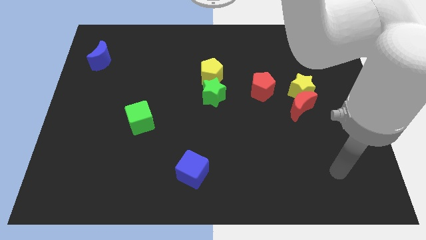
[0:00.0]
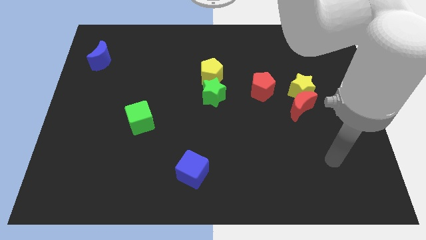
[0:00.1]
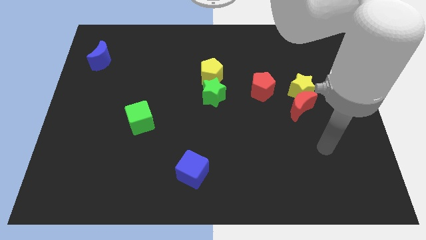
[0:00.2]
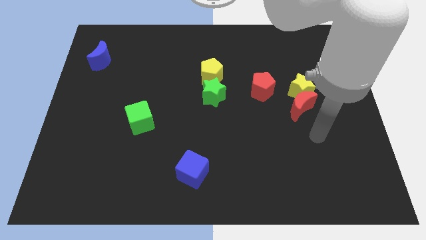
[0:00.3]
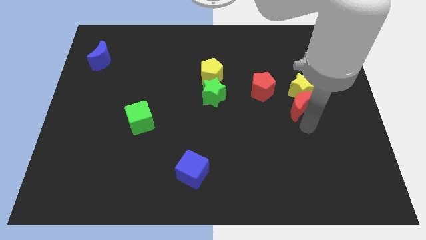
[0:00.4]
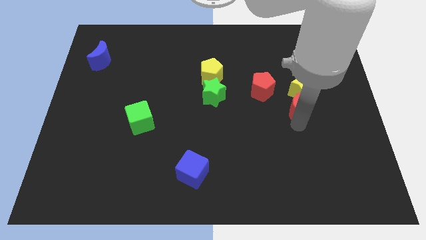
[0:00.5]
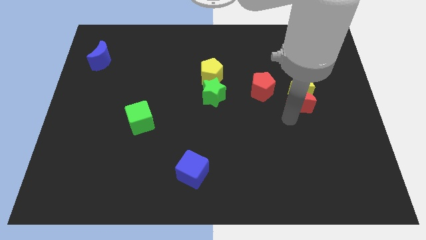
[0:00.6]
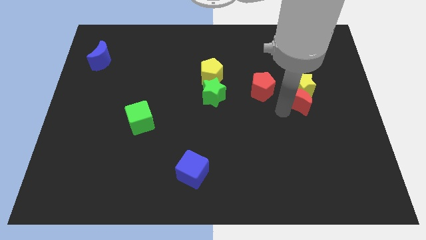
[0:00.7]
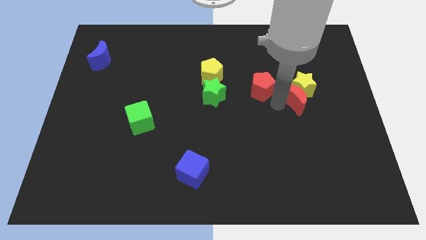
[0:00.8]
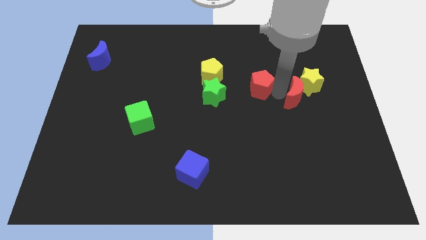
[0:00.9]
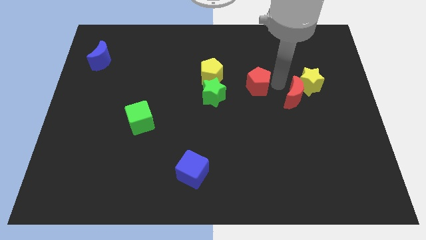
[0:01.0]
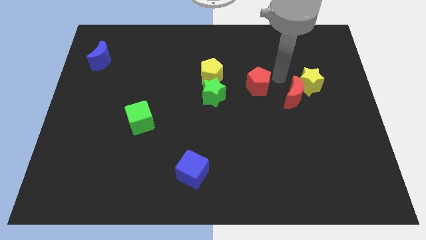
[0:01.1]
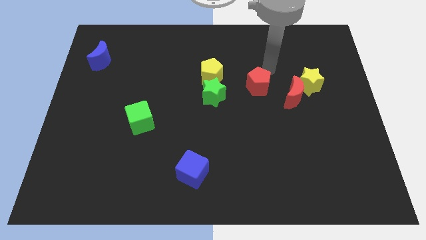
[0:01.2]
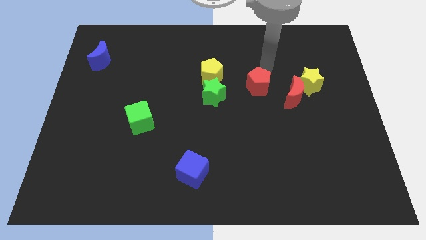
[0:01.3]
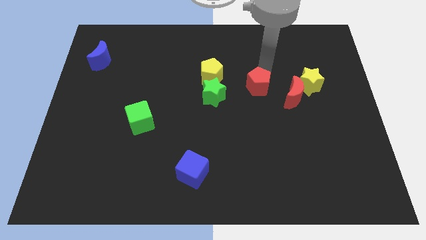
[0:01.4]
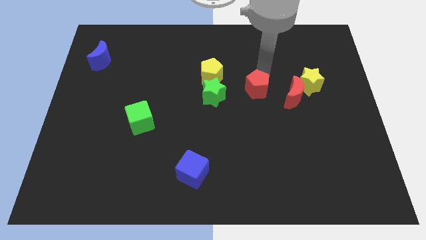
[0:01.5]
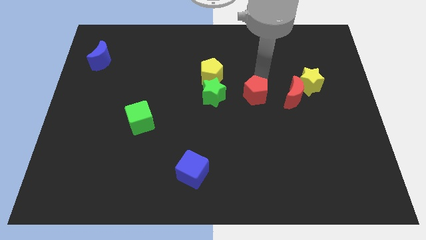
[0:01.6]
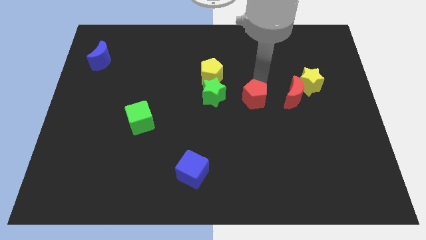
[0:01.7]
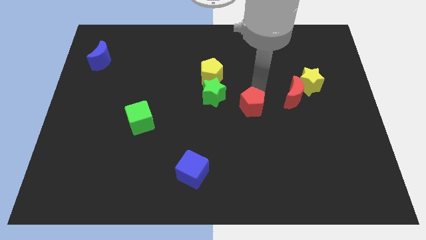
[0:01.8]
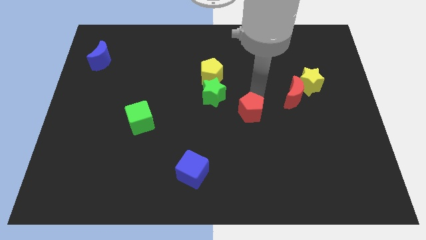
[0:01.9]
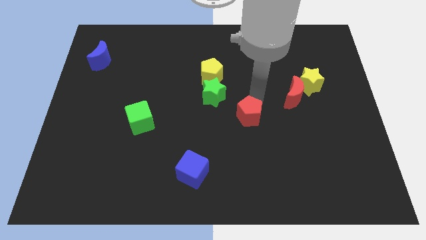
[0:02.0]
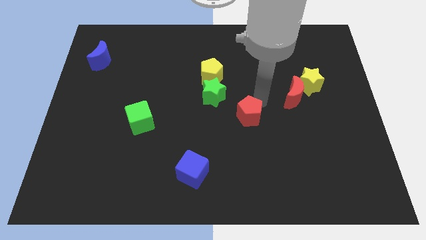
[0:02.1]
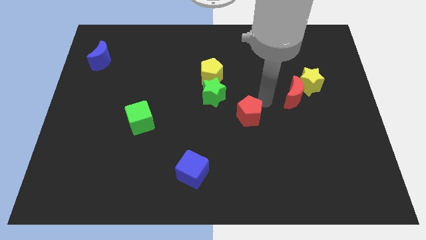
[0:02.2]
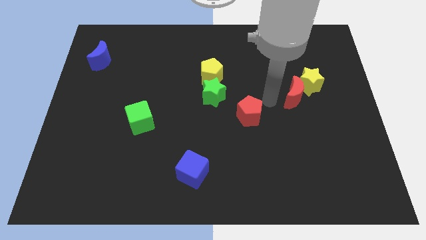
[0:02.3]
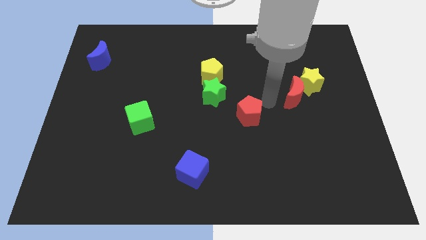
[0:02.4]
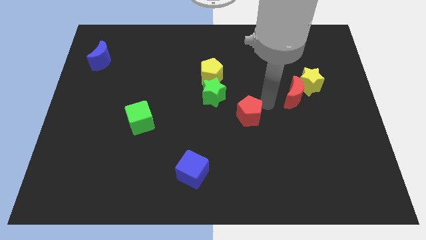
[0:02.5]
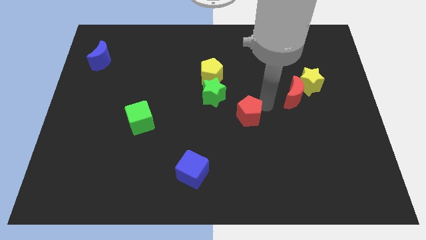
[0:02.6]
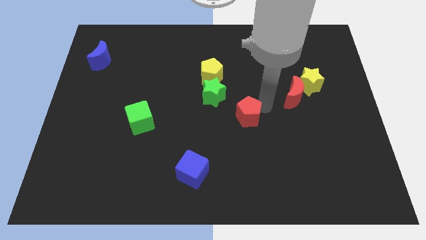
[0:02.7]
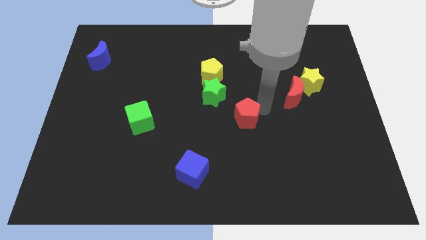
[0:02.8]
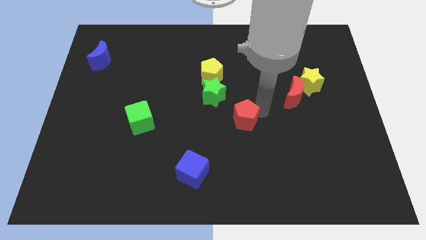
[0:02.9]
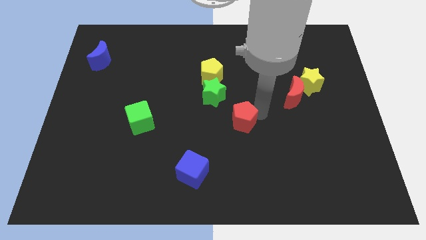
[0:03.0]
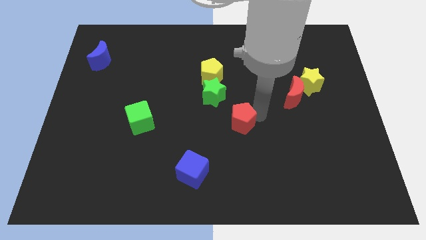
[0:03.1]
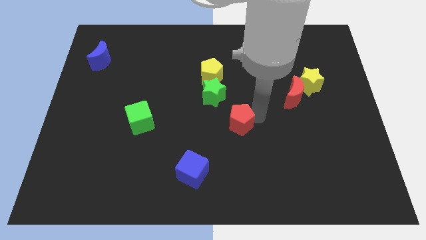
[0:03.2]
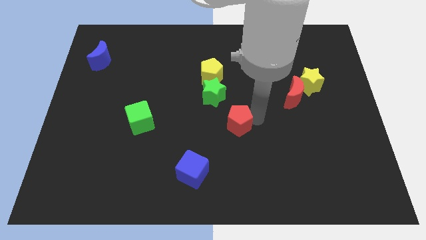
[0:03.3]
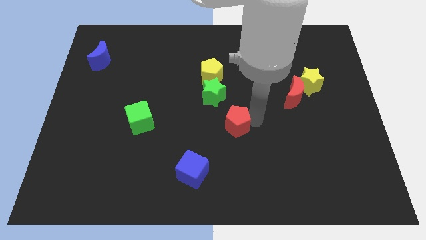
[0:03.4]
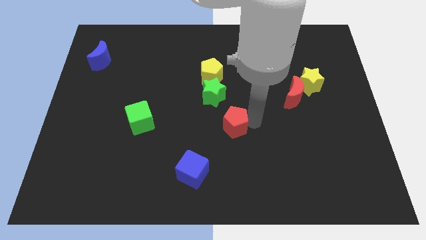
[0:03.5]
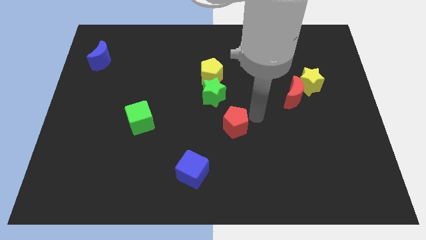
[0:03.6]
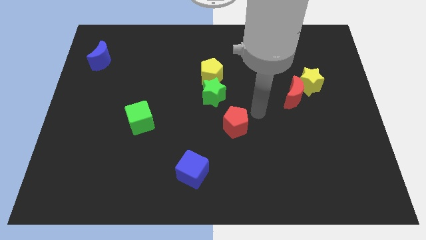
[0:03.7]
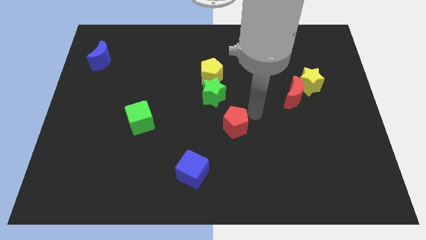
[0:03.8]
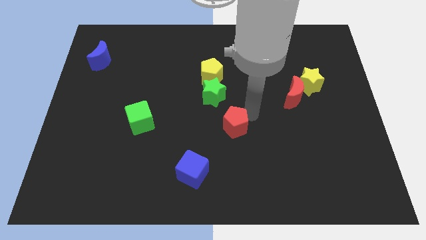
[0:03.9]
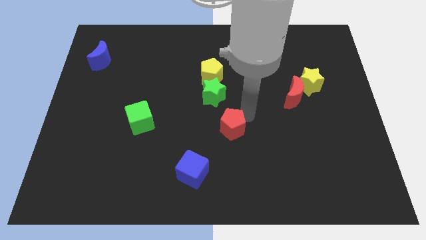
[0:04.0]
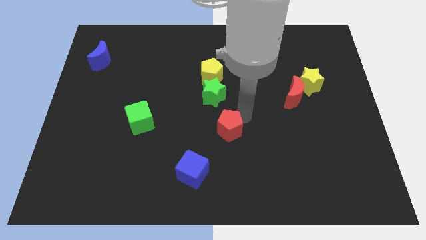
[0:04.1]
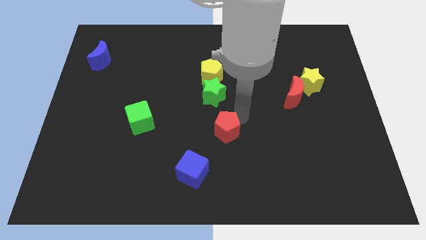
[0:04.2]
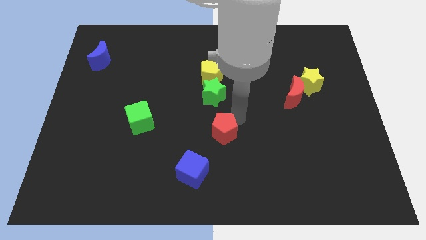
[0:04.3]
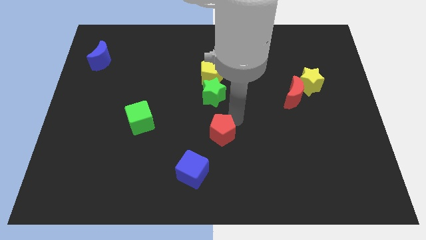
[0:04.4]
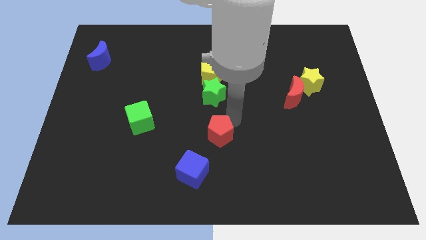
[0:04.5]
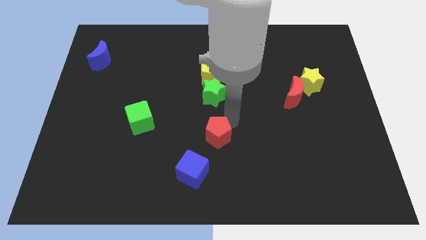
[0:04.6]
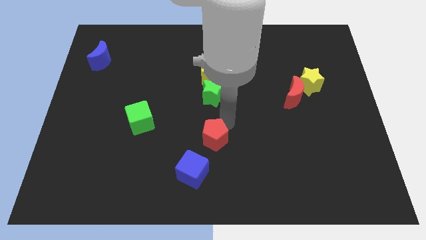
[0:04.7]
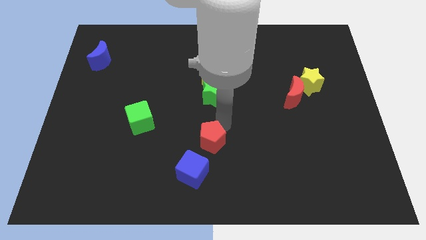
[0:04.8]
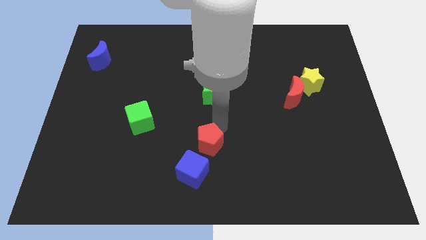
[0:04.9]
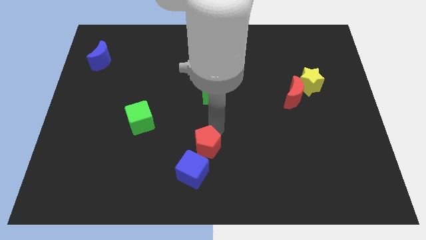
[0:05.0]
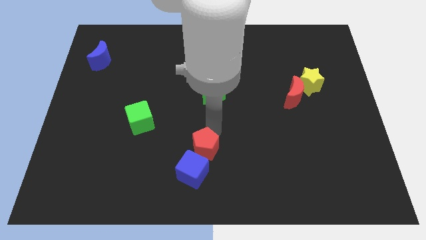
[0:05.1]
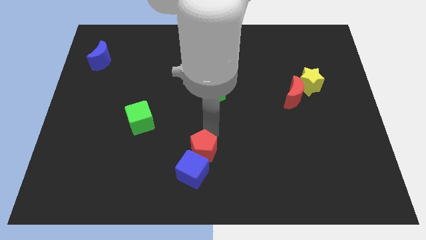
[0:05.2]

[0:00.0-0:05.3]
push the red pentagon close to the blue cube

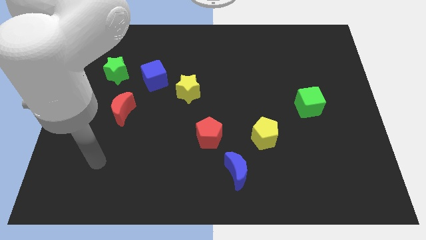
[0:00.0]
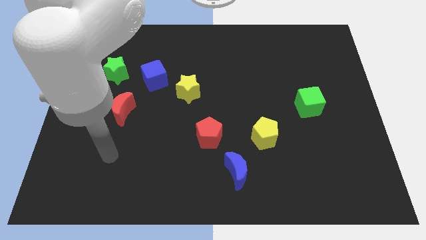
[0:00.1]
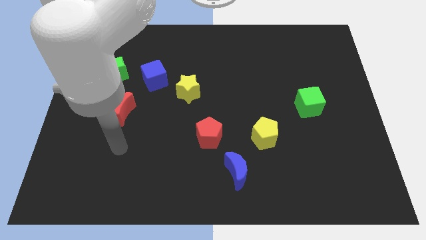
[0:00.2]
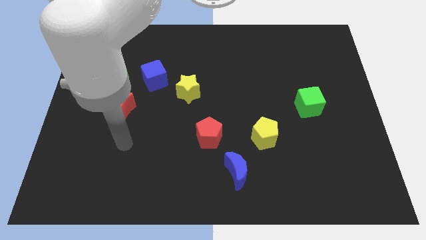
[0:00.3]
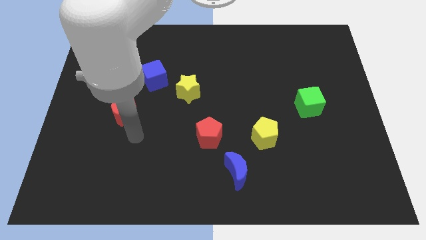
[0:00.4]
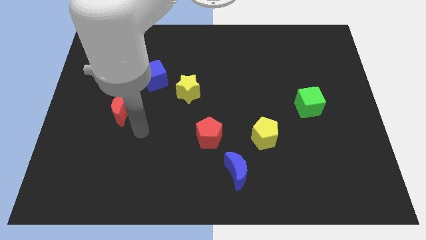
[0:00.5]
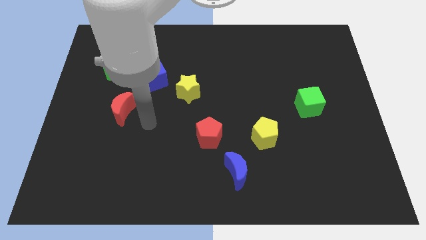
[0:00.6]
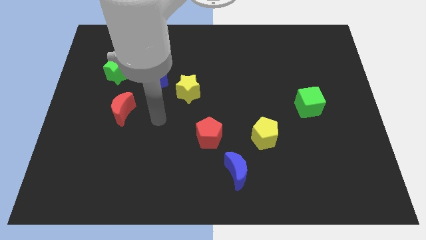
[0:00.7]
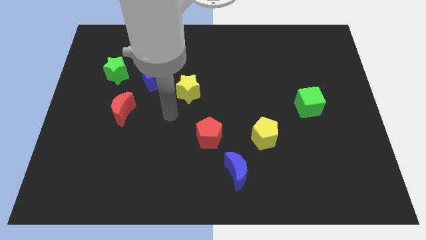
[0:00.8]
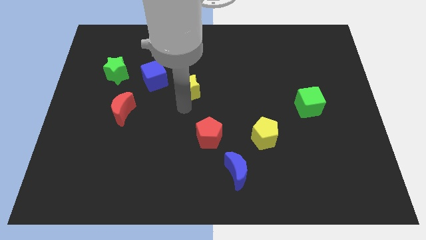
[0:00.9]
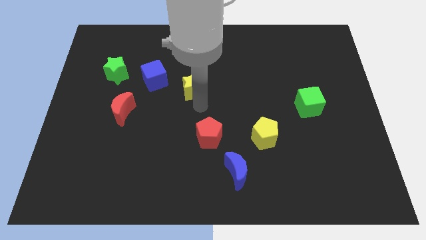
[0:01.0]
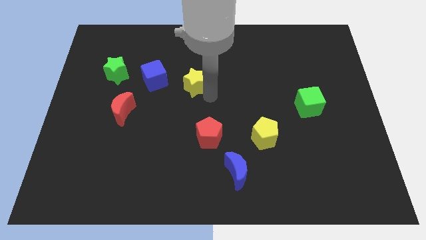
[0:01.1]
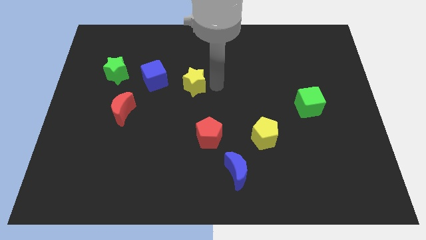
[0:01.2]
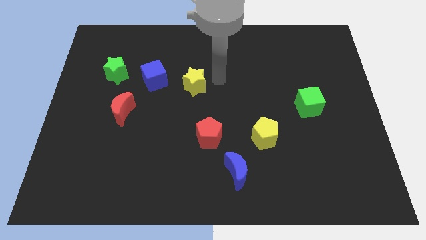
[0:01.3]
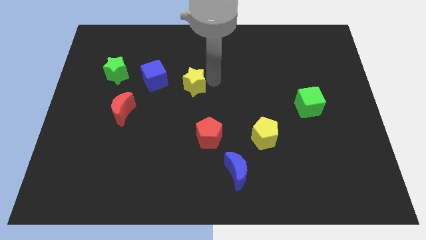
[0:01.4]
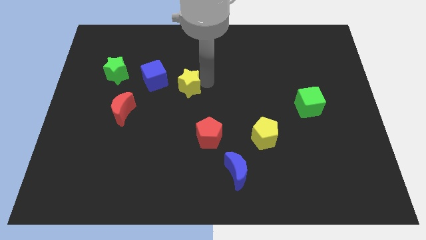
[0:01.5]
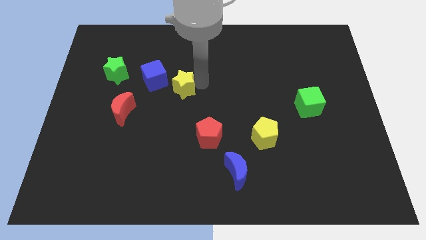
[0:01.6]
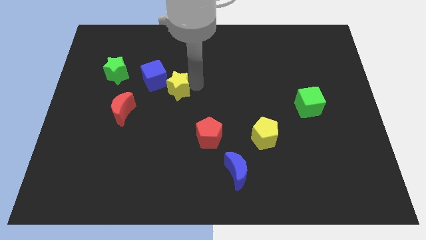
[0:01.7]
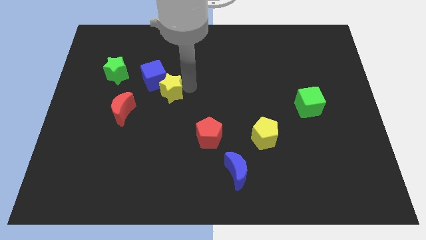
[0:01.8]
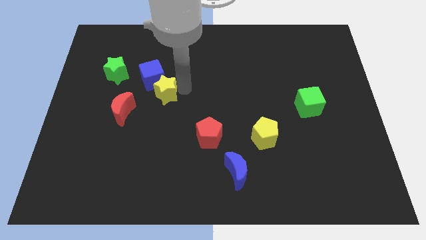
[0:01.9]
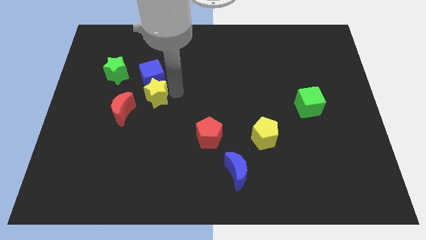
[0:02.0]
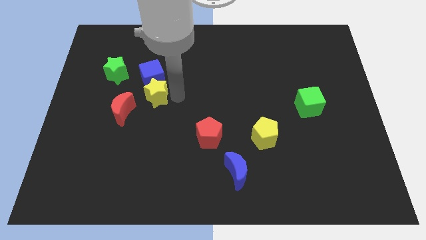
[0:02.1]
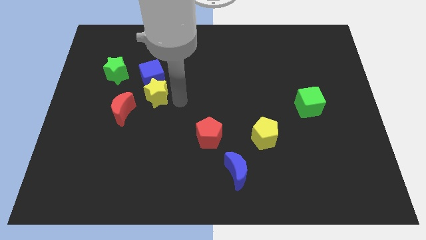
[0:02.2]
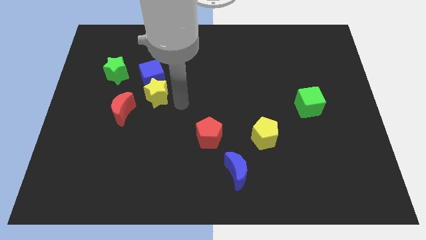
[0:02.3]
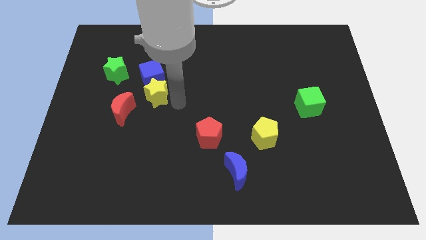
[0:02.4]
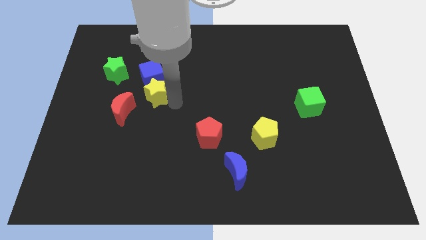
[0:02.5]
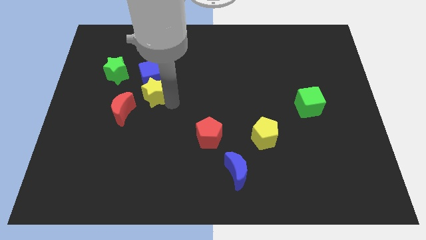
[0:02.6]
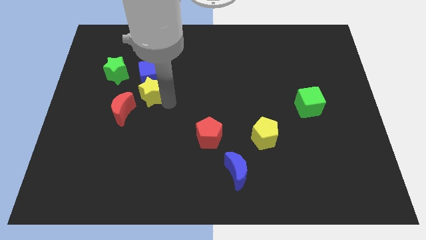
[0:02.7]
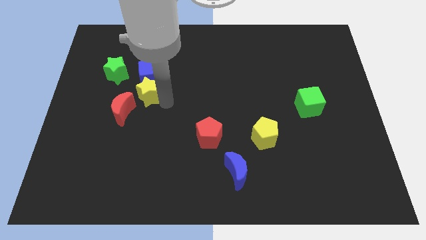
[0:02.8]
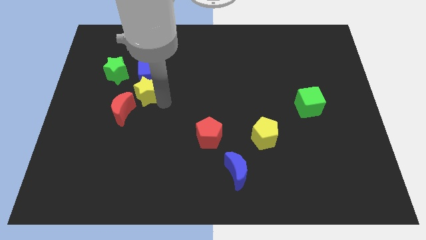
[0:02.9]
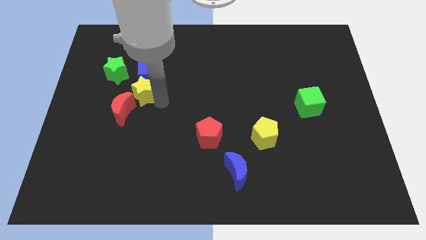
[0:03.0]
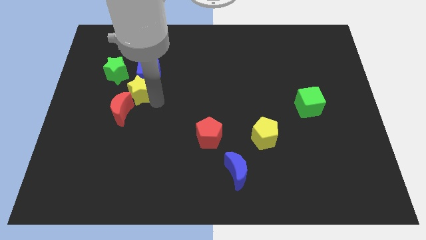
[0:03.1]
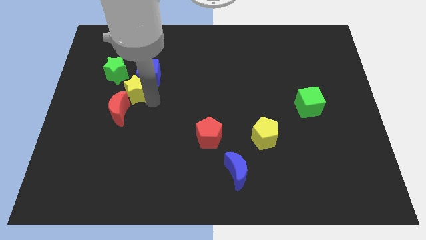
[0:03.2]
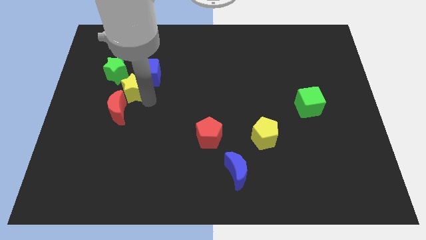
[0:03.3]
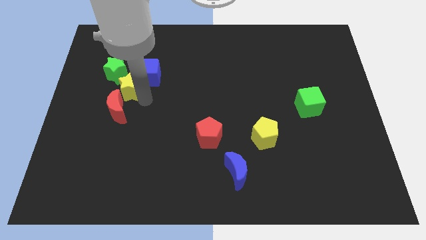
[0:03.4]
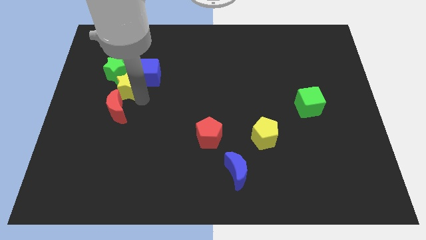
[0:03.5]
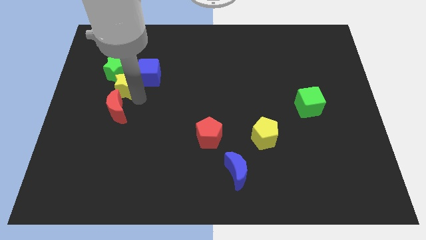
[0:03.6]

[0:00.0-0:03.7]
move the yellow star towards the green star
